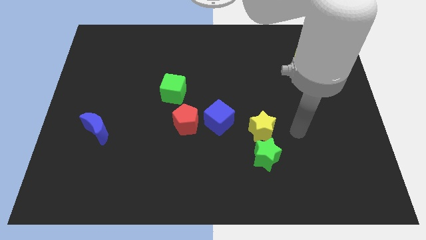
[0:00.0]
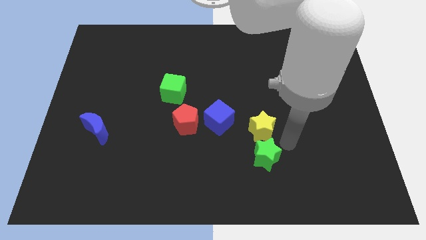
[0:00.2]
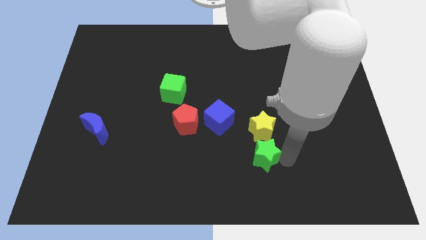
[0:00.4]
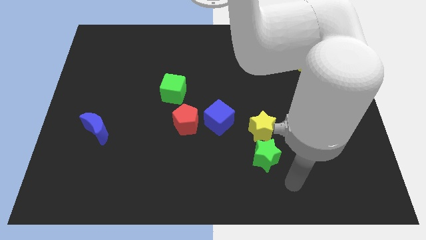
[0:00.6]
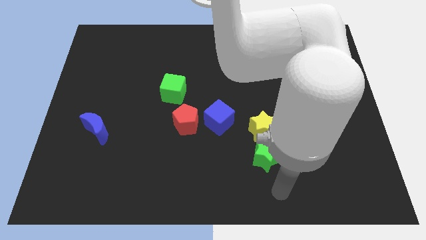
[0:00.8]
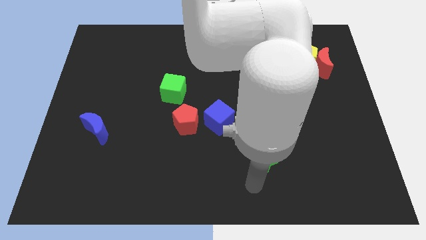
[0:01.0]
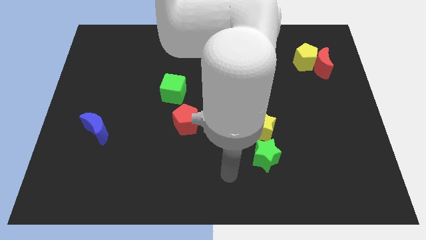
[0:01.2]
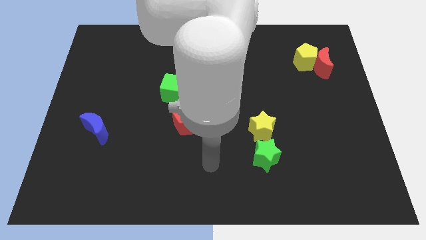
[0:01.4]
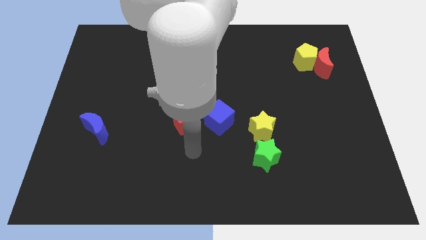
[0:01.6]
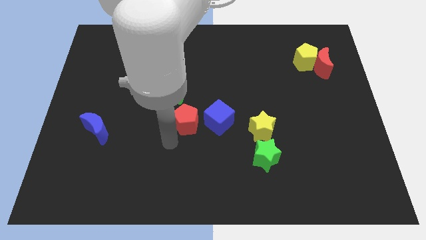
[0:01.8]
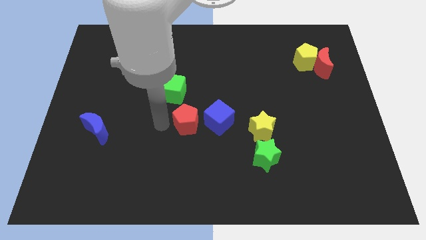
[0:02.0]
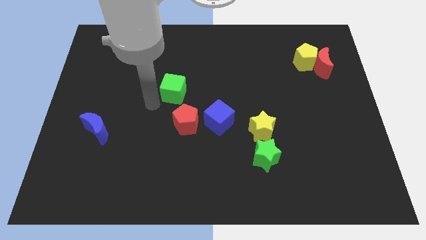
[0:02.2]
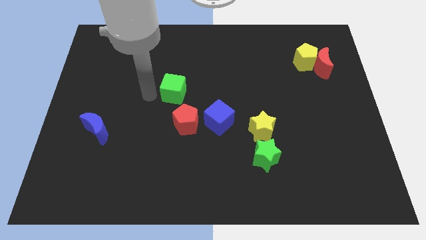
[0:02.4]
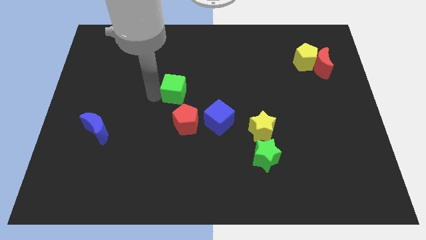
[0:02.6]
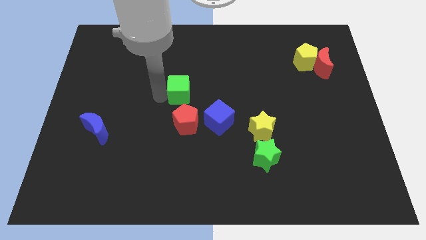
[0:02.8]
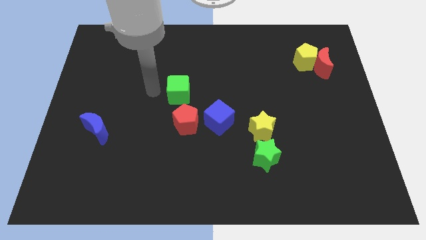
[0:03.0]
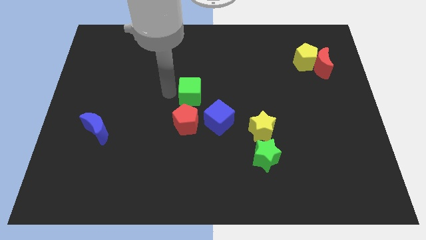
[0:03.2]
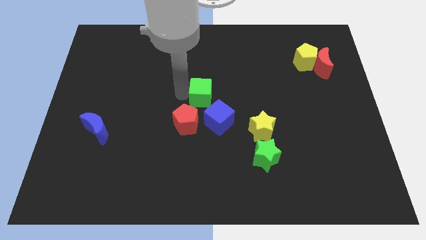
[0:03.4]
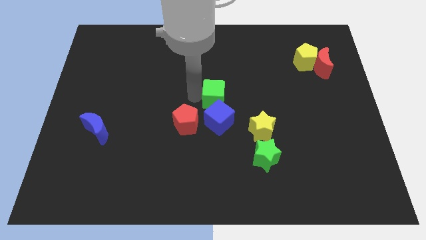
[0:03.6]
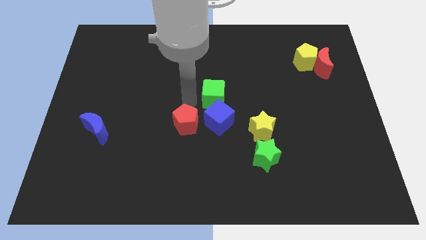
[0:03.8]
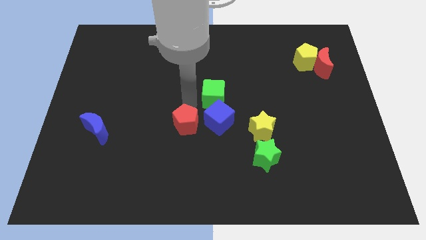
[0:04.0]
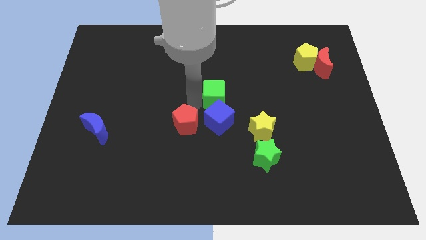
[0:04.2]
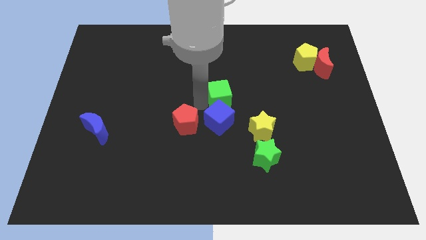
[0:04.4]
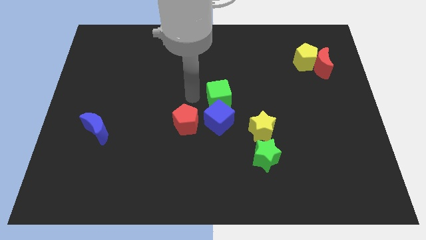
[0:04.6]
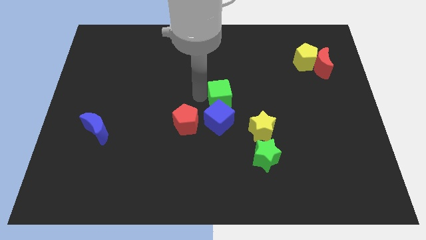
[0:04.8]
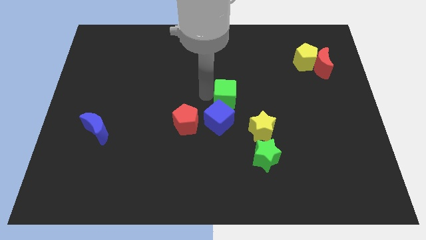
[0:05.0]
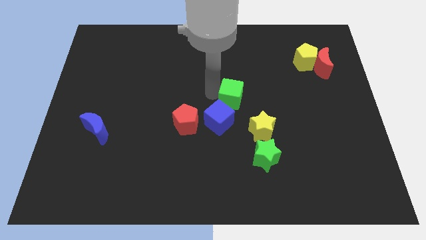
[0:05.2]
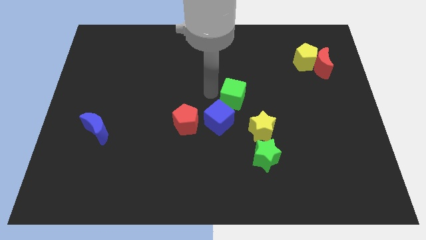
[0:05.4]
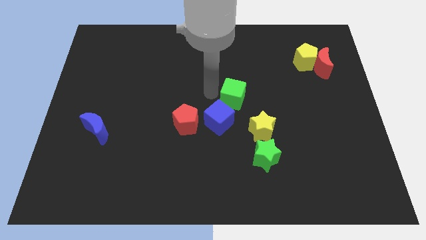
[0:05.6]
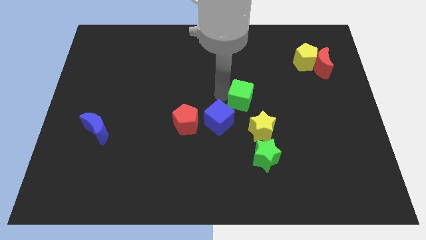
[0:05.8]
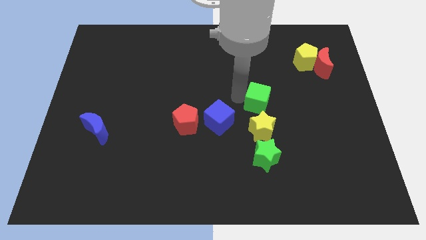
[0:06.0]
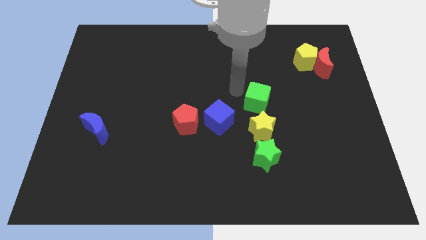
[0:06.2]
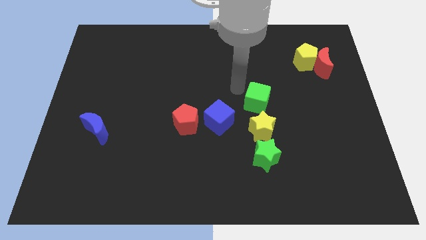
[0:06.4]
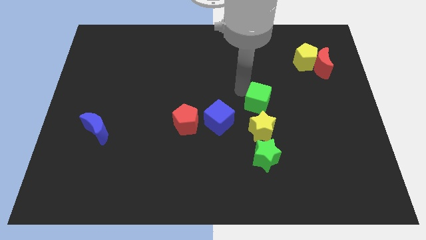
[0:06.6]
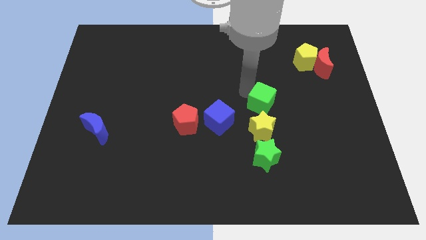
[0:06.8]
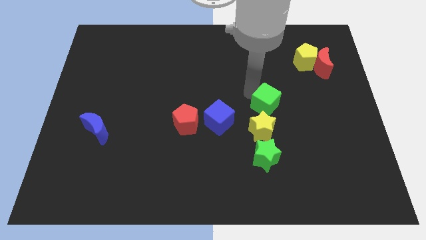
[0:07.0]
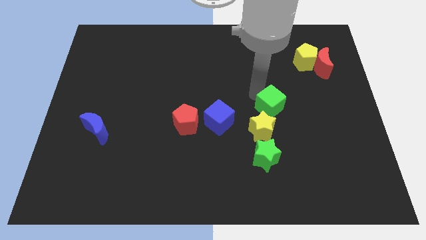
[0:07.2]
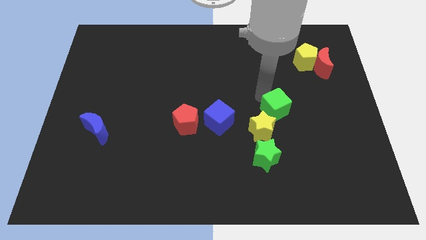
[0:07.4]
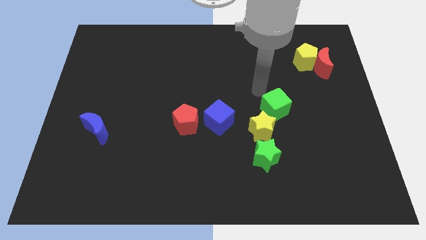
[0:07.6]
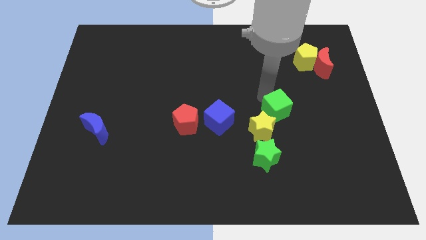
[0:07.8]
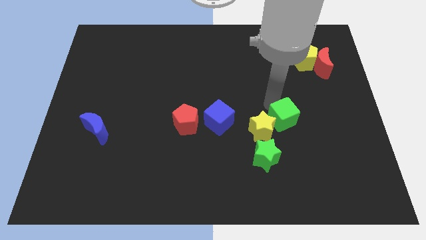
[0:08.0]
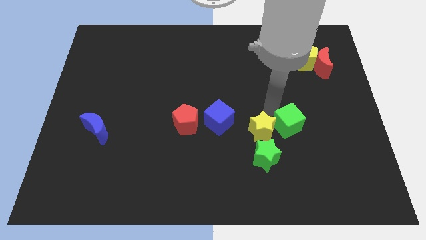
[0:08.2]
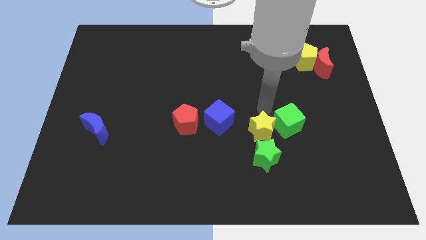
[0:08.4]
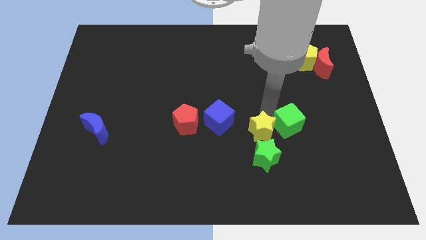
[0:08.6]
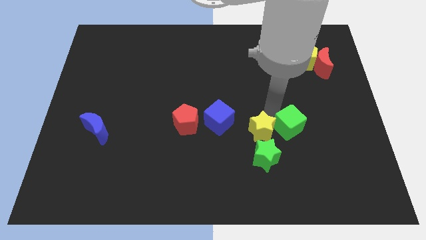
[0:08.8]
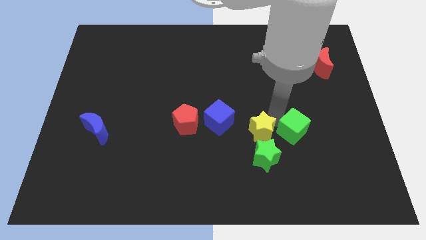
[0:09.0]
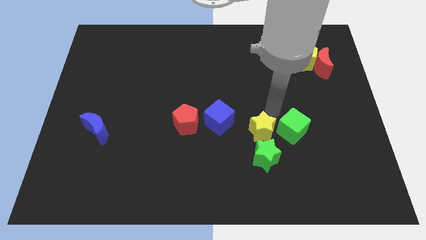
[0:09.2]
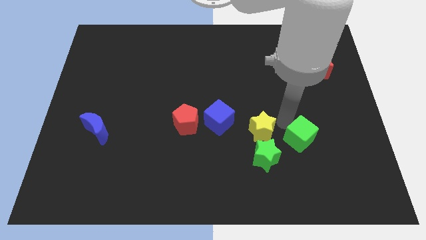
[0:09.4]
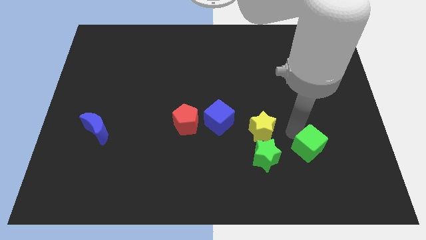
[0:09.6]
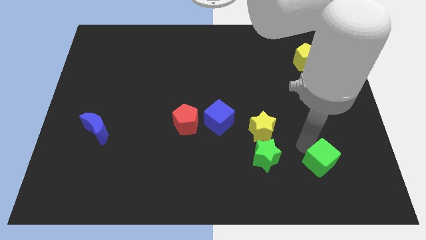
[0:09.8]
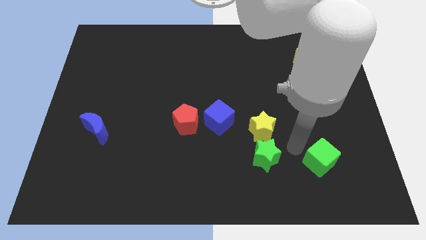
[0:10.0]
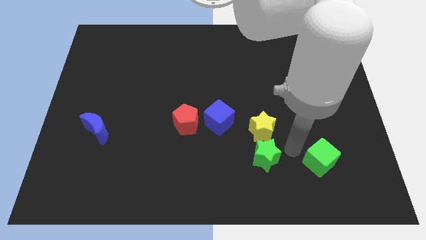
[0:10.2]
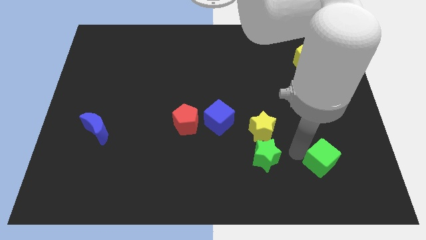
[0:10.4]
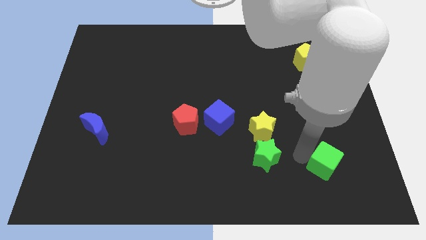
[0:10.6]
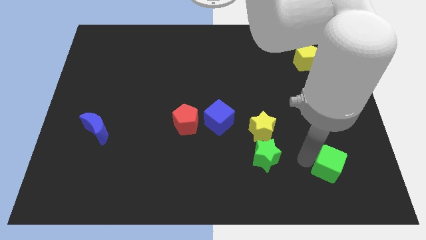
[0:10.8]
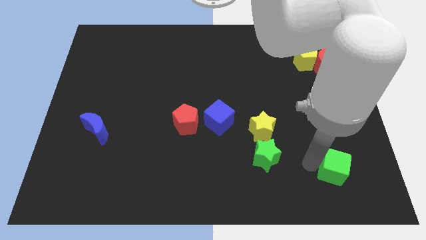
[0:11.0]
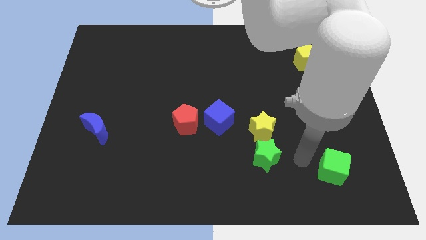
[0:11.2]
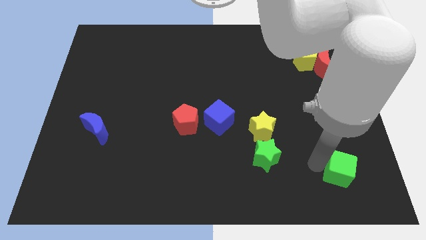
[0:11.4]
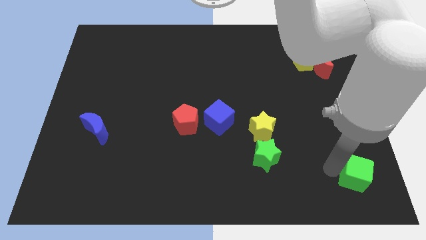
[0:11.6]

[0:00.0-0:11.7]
put the green cube to the bottom right corner

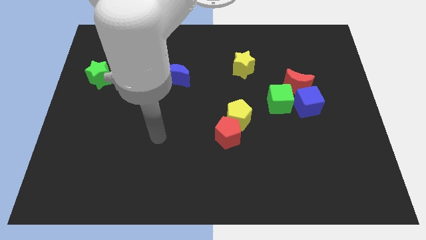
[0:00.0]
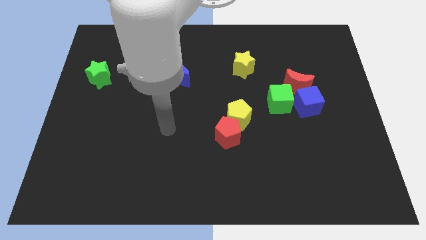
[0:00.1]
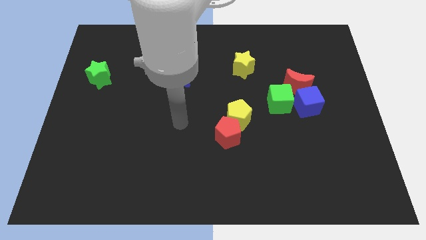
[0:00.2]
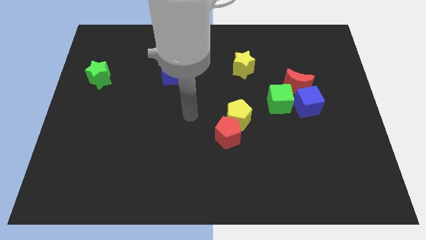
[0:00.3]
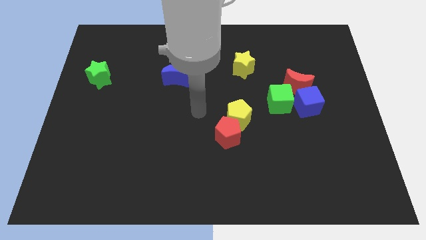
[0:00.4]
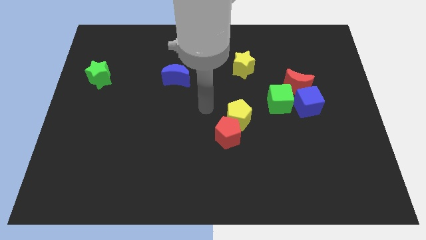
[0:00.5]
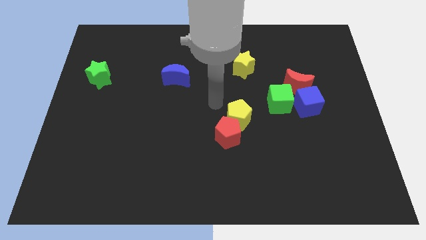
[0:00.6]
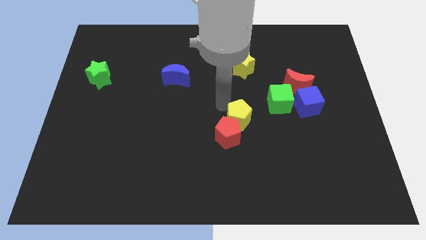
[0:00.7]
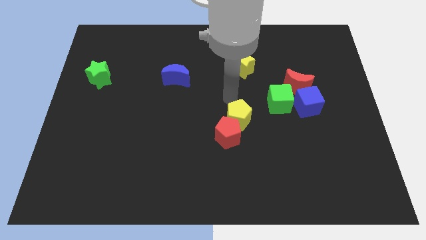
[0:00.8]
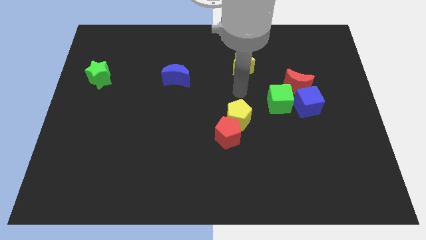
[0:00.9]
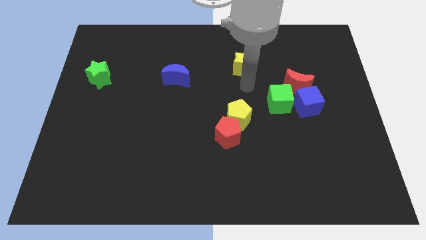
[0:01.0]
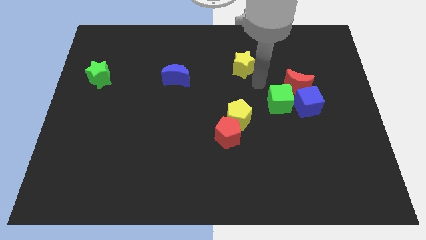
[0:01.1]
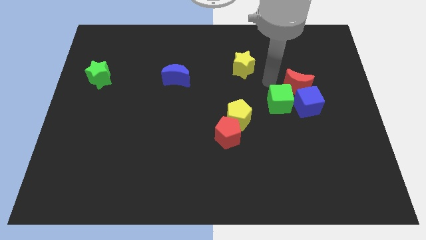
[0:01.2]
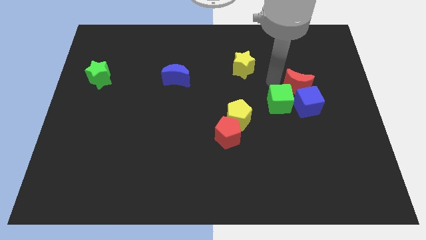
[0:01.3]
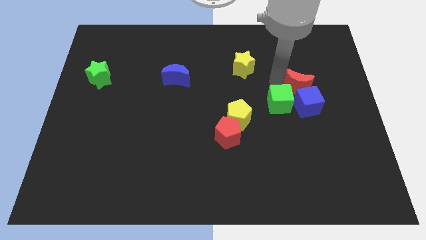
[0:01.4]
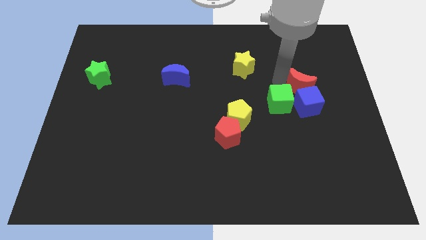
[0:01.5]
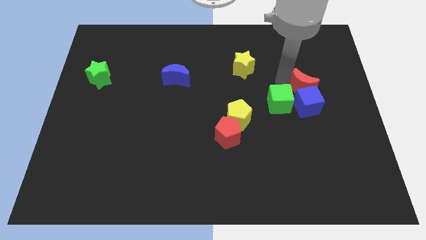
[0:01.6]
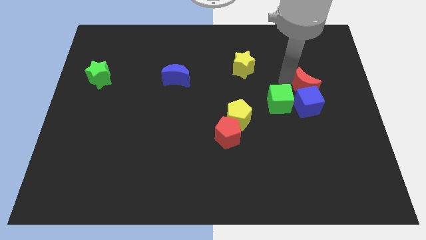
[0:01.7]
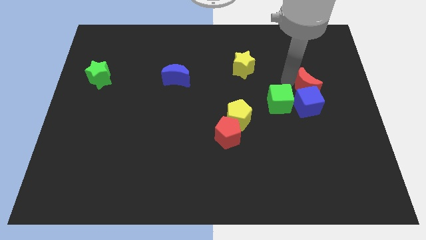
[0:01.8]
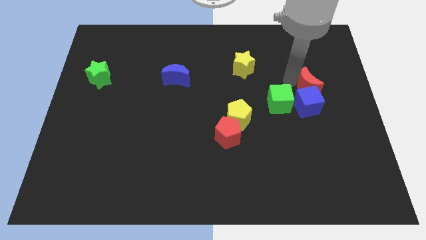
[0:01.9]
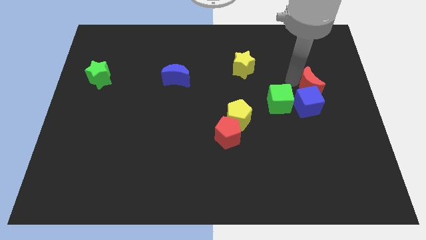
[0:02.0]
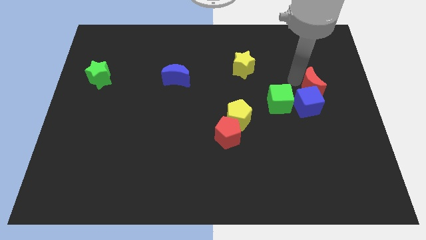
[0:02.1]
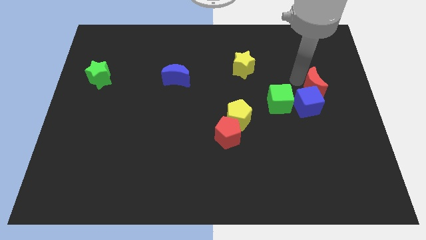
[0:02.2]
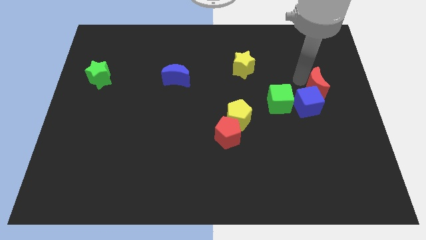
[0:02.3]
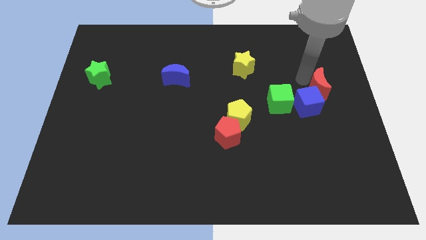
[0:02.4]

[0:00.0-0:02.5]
put the red moon to the right side
